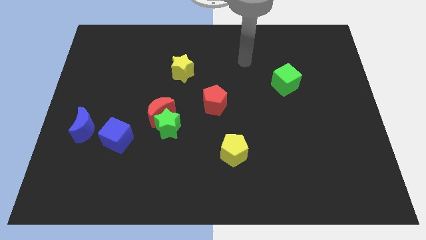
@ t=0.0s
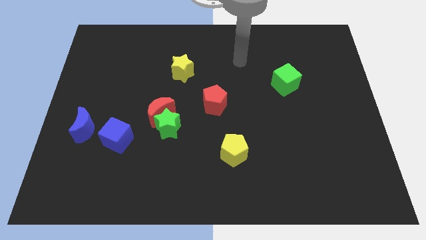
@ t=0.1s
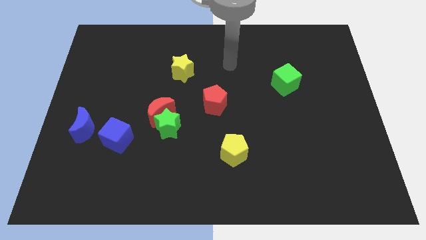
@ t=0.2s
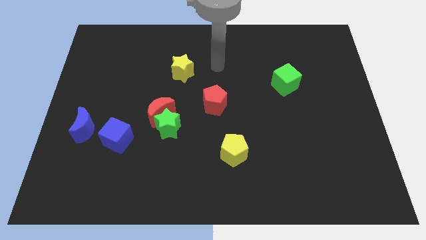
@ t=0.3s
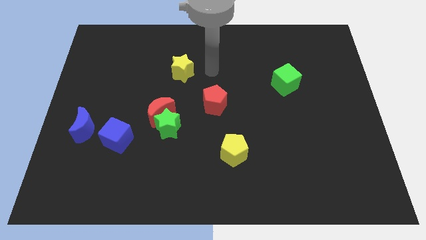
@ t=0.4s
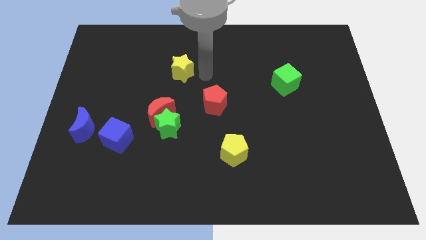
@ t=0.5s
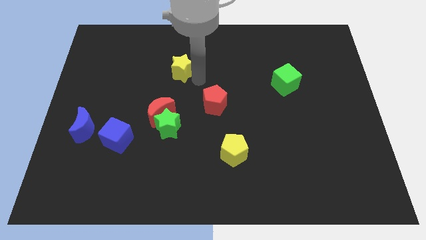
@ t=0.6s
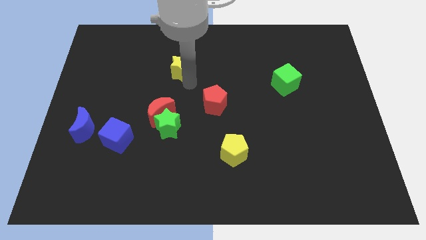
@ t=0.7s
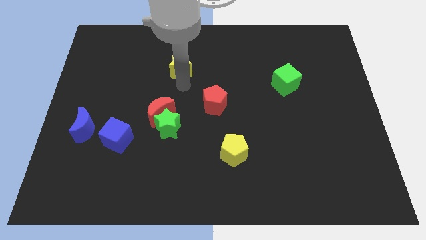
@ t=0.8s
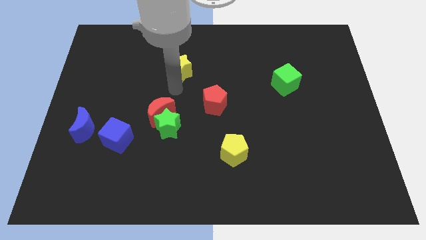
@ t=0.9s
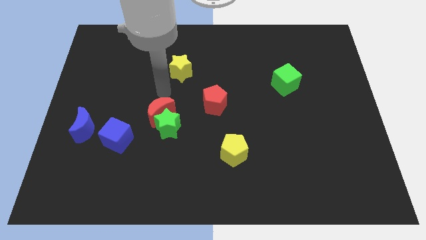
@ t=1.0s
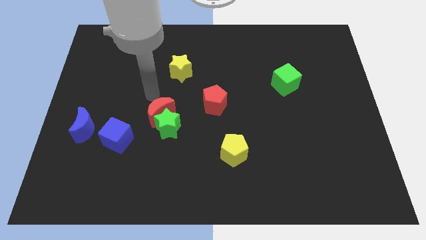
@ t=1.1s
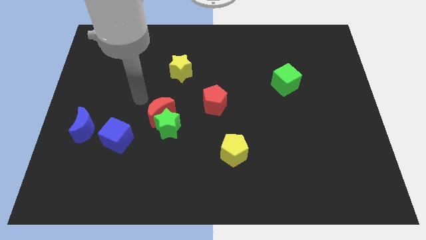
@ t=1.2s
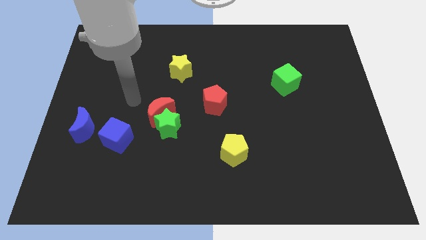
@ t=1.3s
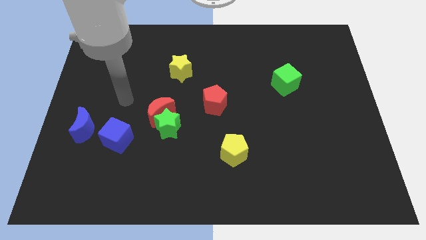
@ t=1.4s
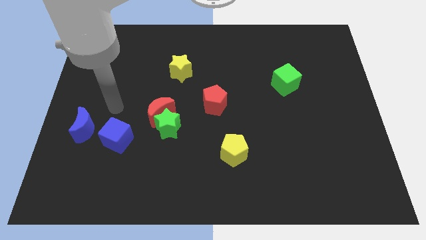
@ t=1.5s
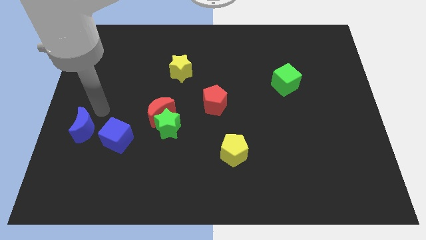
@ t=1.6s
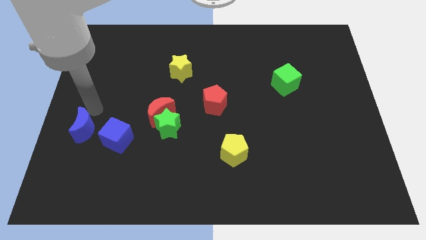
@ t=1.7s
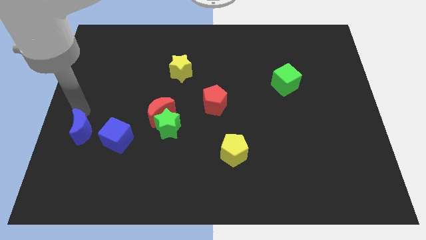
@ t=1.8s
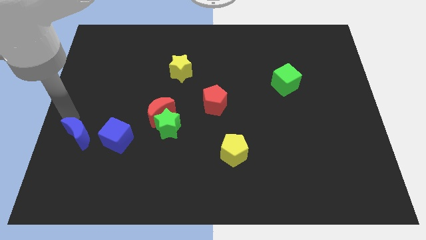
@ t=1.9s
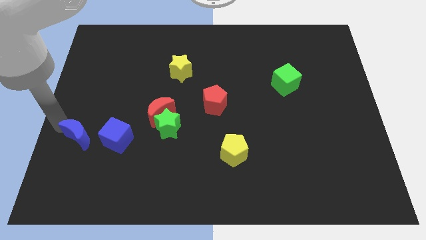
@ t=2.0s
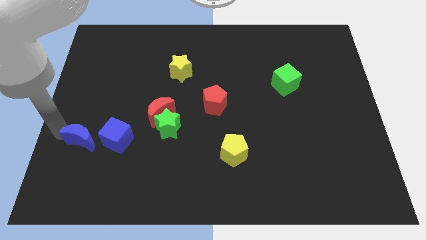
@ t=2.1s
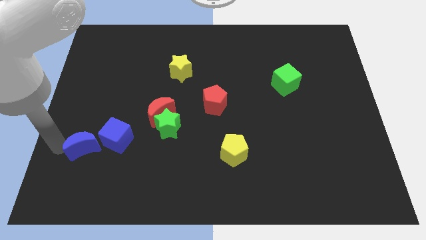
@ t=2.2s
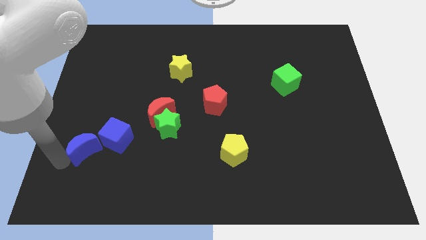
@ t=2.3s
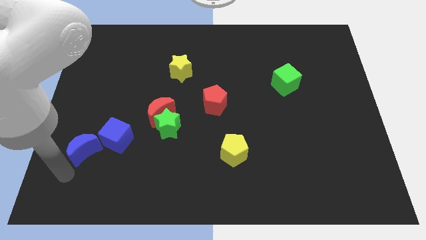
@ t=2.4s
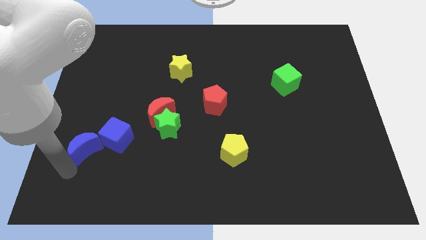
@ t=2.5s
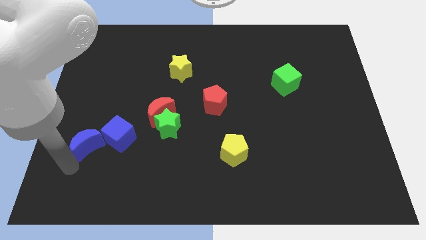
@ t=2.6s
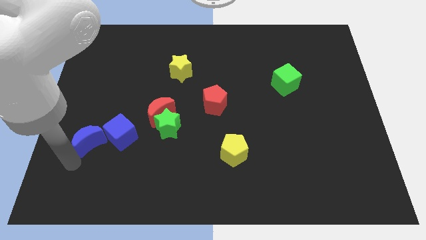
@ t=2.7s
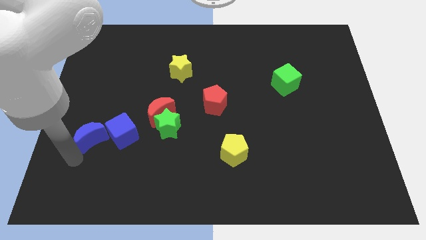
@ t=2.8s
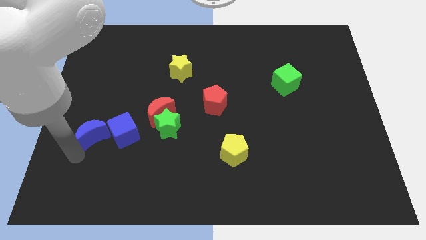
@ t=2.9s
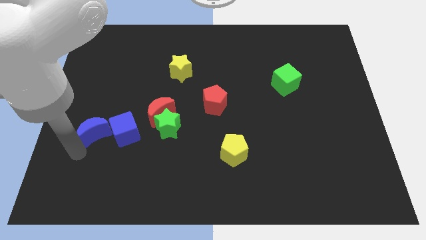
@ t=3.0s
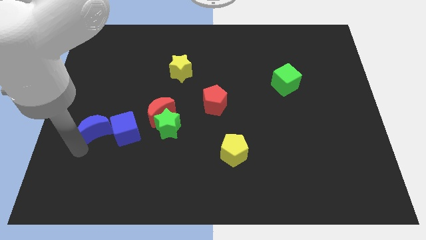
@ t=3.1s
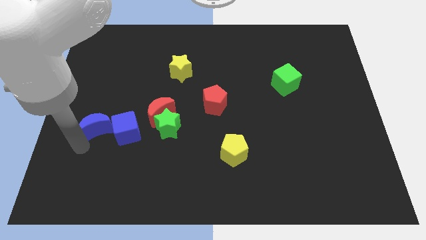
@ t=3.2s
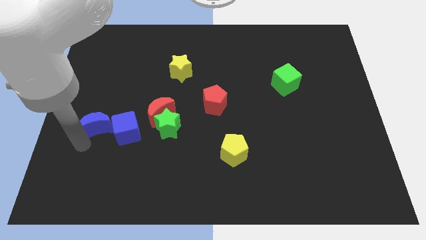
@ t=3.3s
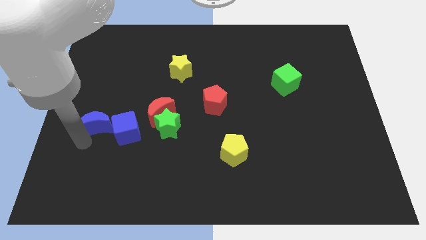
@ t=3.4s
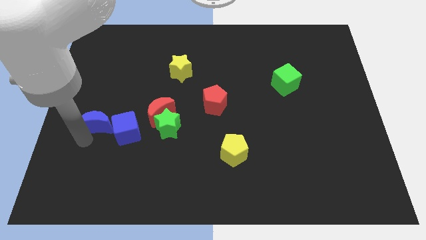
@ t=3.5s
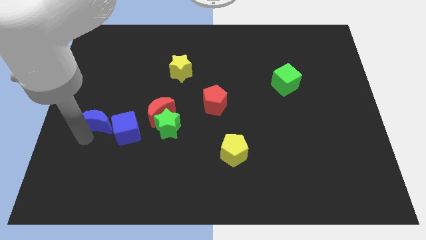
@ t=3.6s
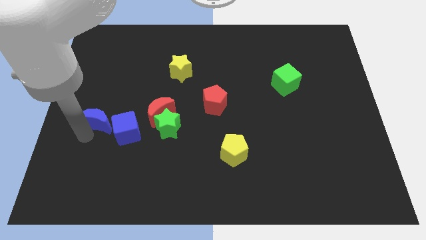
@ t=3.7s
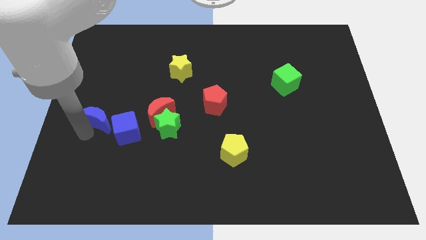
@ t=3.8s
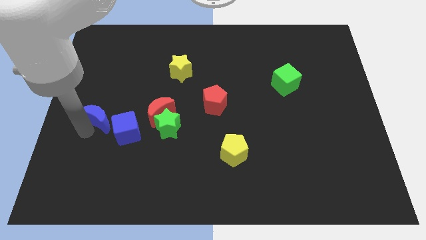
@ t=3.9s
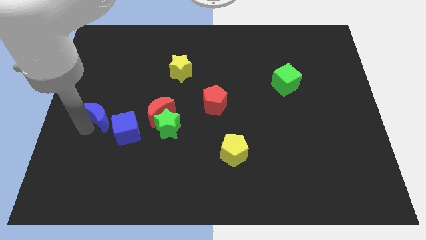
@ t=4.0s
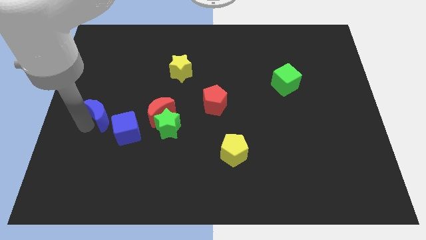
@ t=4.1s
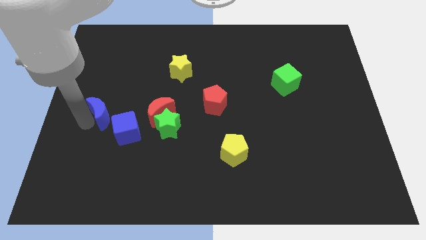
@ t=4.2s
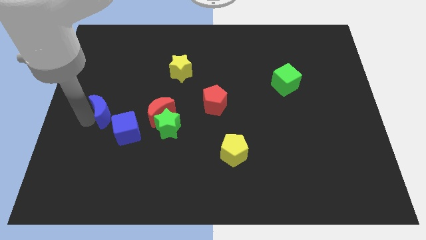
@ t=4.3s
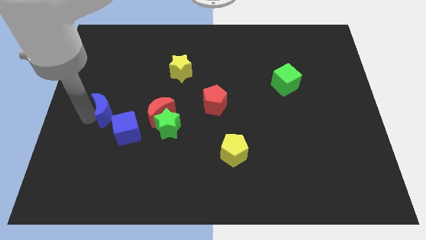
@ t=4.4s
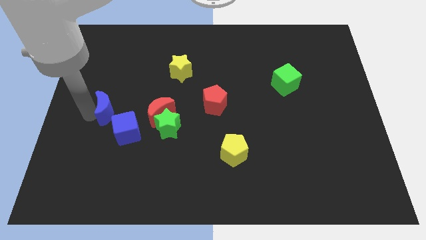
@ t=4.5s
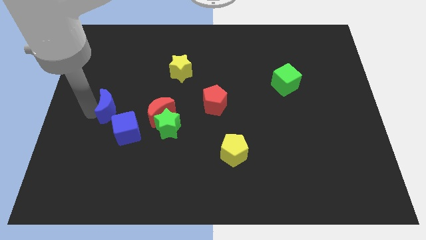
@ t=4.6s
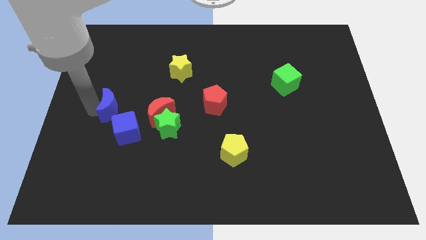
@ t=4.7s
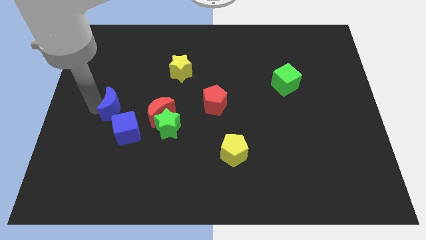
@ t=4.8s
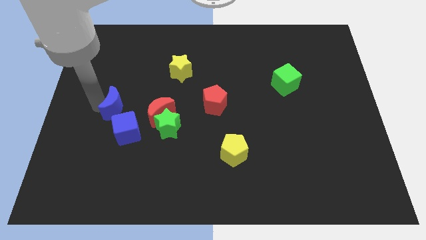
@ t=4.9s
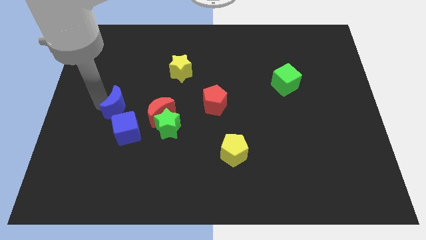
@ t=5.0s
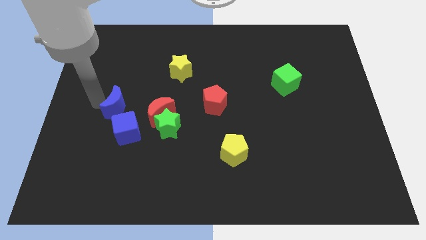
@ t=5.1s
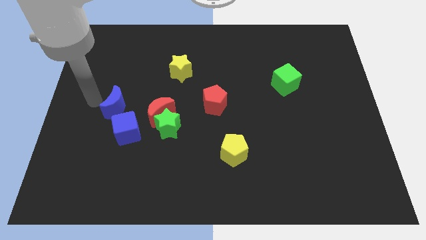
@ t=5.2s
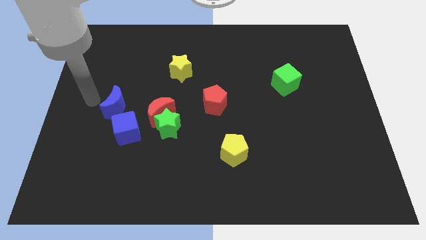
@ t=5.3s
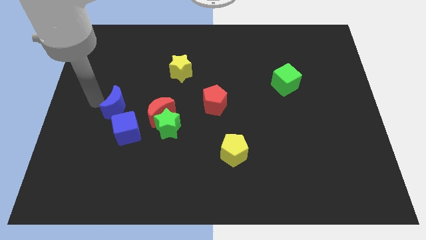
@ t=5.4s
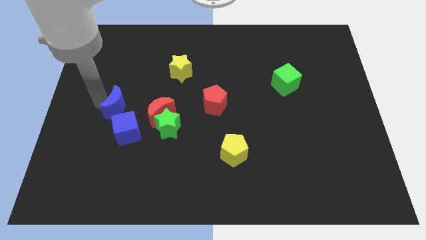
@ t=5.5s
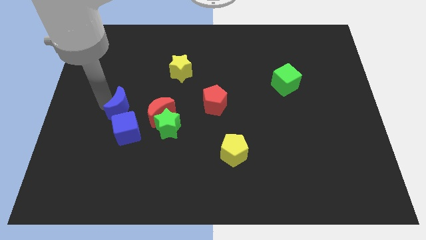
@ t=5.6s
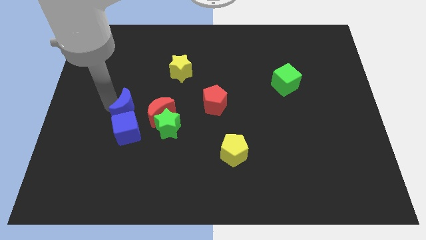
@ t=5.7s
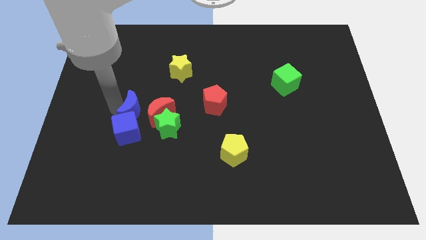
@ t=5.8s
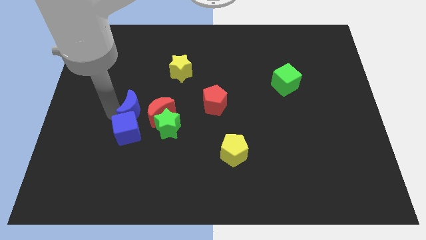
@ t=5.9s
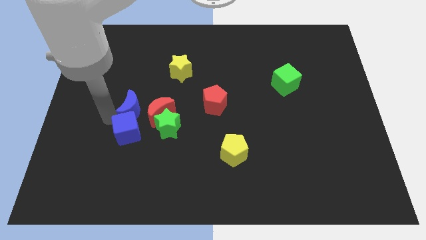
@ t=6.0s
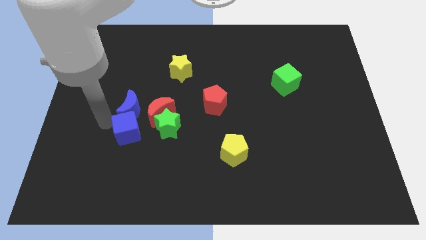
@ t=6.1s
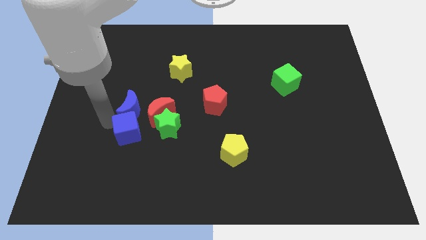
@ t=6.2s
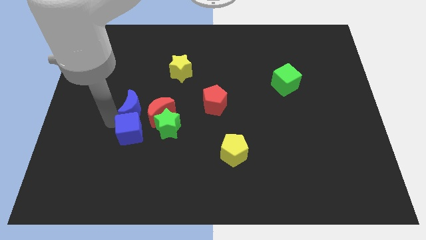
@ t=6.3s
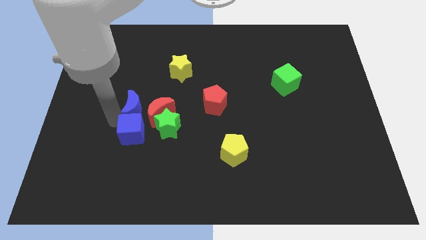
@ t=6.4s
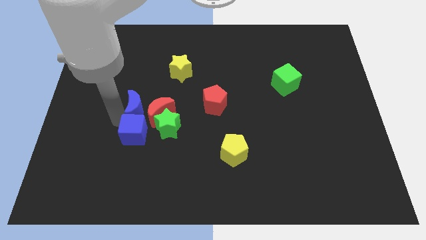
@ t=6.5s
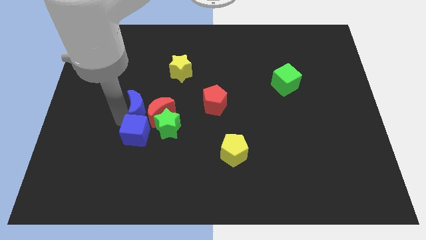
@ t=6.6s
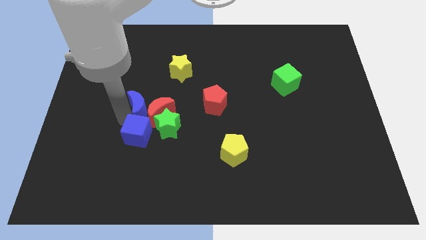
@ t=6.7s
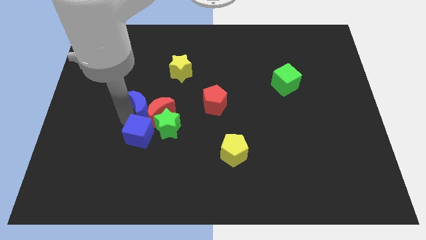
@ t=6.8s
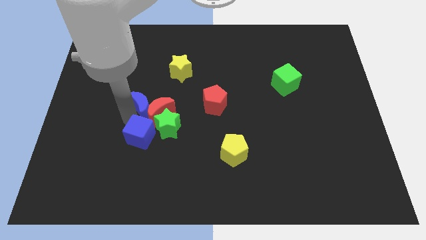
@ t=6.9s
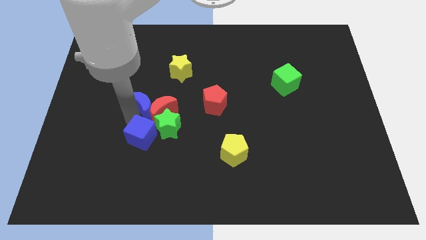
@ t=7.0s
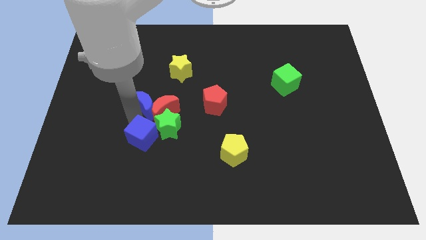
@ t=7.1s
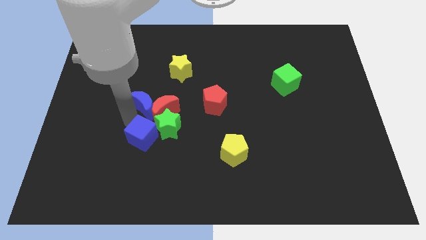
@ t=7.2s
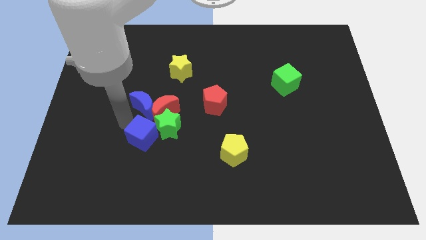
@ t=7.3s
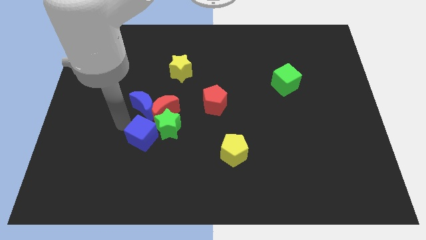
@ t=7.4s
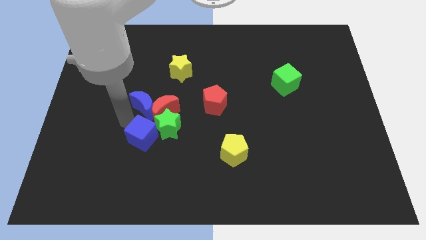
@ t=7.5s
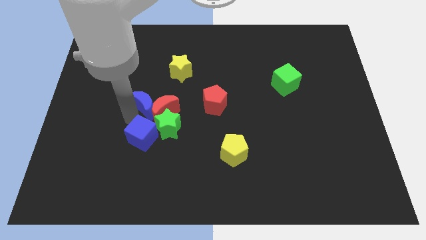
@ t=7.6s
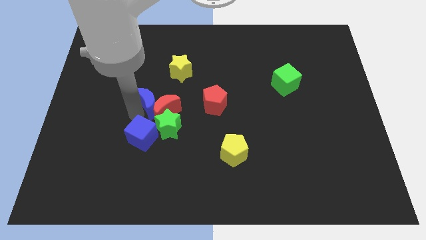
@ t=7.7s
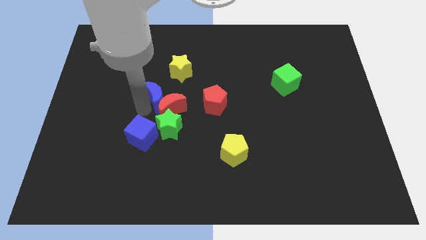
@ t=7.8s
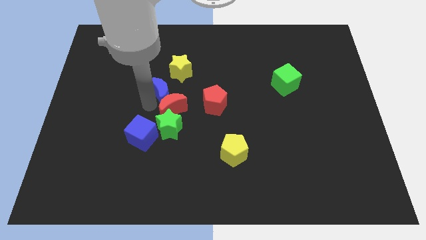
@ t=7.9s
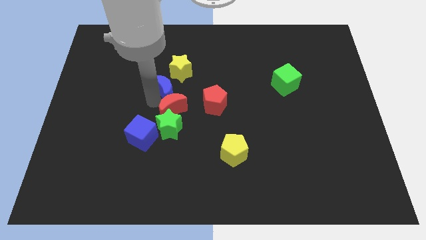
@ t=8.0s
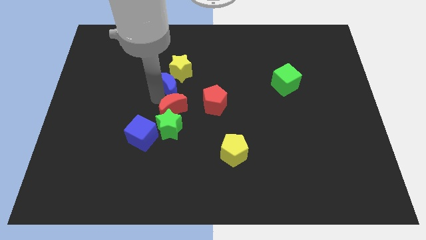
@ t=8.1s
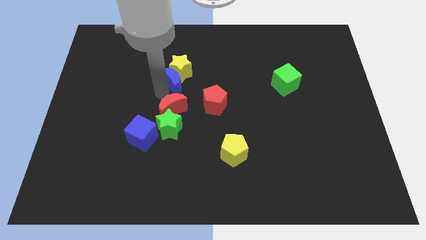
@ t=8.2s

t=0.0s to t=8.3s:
put the blue moon diagonally up and to the left of the red pentagon
